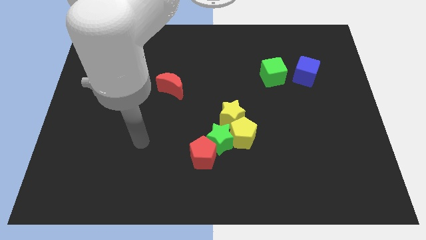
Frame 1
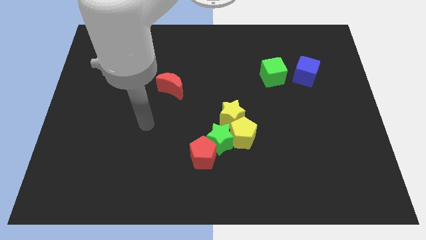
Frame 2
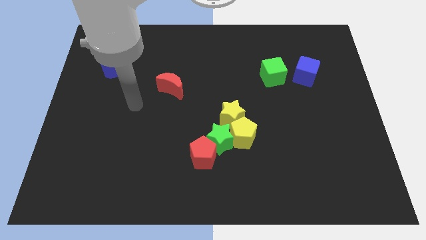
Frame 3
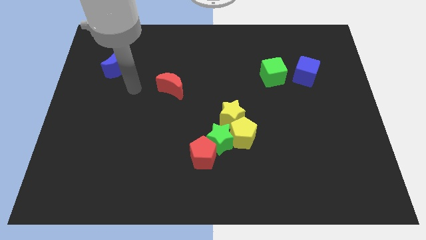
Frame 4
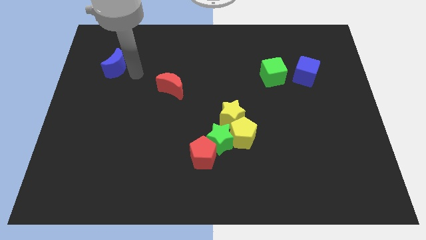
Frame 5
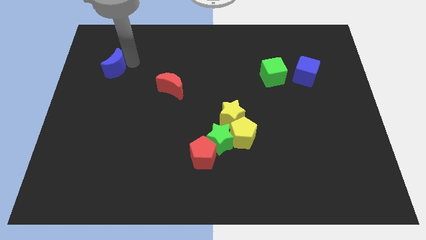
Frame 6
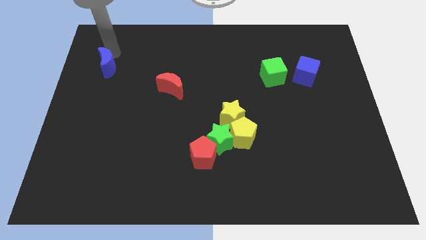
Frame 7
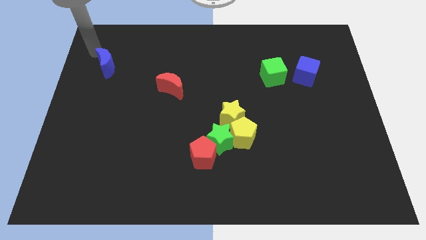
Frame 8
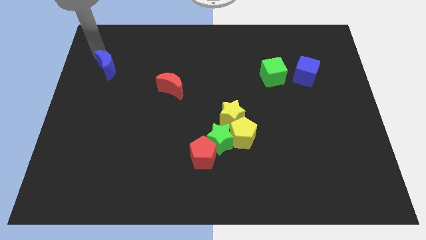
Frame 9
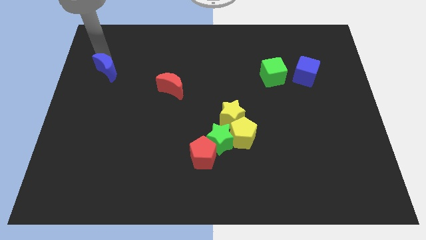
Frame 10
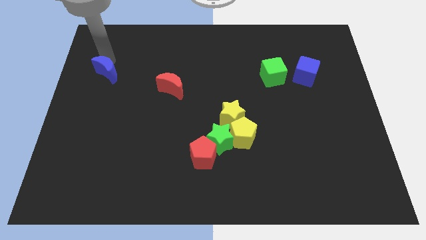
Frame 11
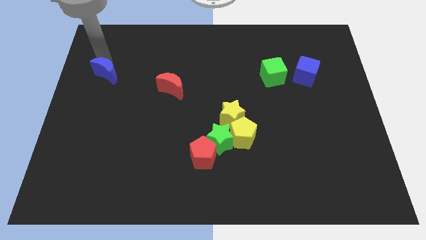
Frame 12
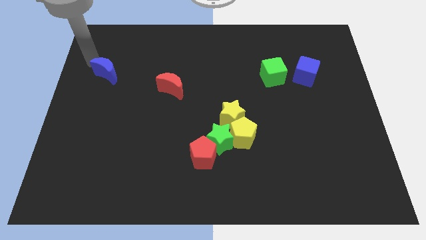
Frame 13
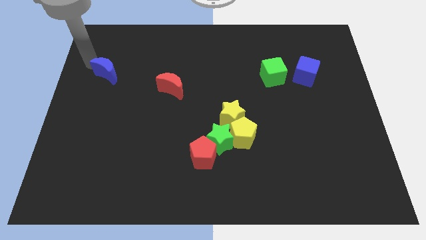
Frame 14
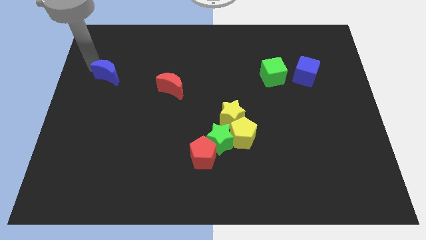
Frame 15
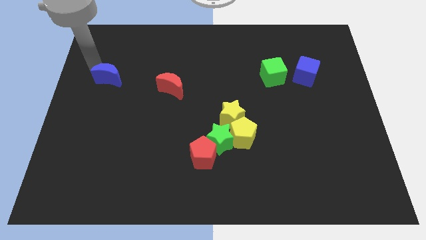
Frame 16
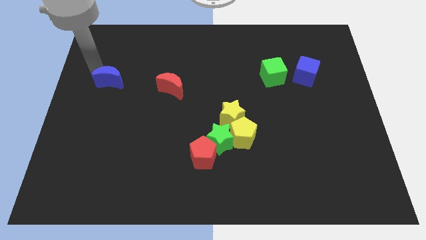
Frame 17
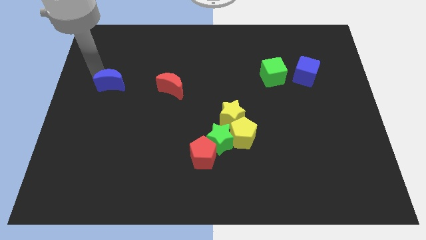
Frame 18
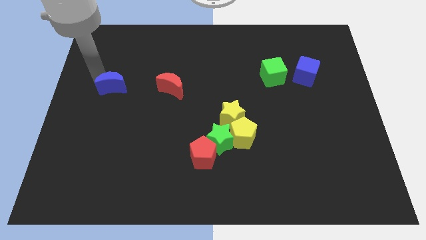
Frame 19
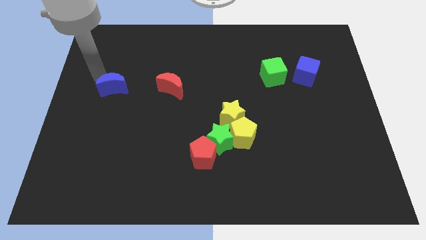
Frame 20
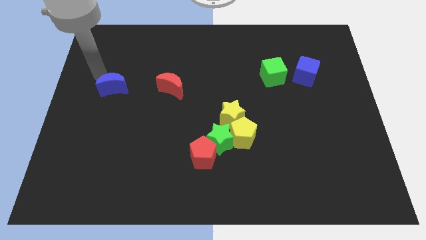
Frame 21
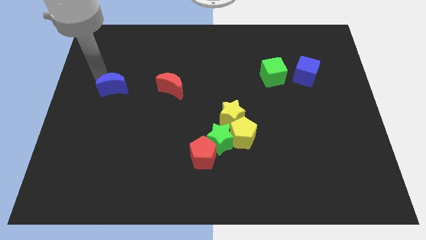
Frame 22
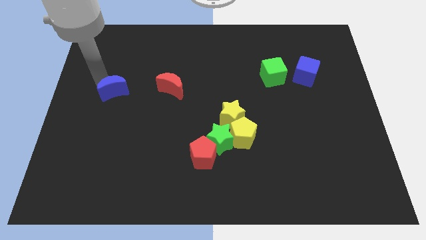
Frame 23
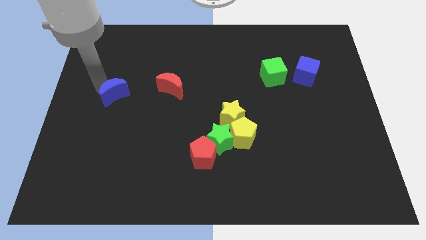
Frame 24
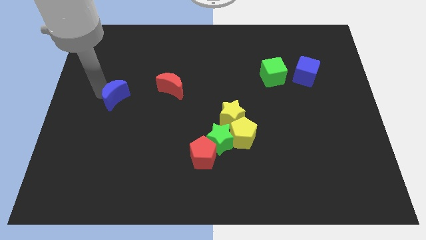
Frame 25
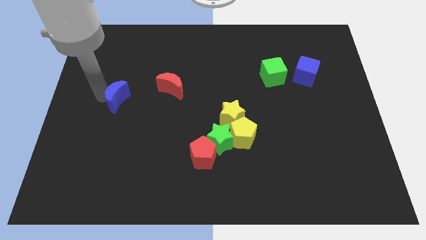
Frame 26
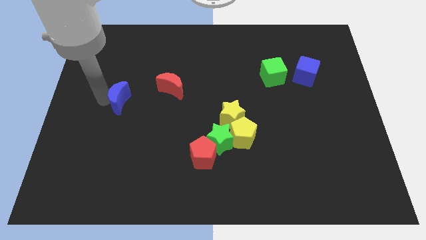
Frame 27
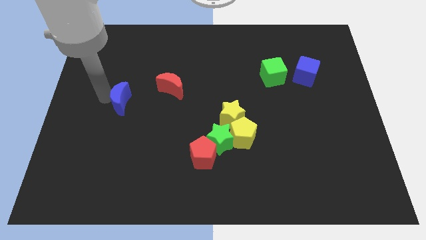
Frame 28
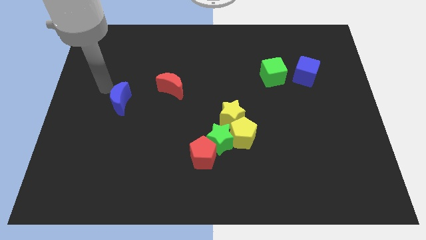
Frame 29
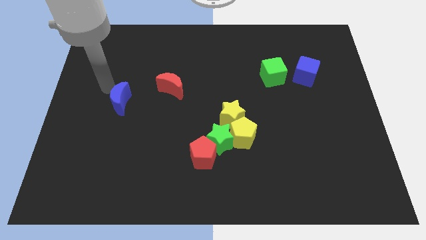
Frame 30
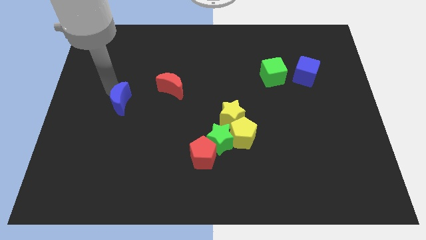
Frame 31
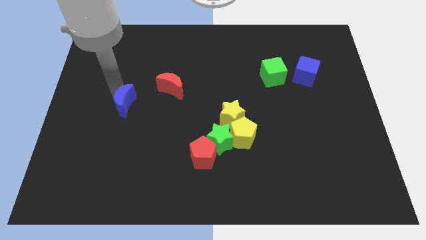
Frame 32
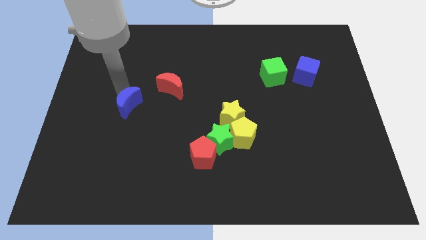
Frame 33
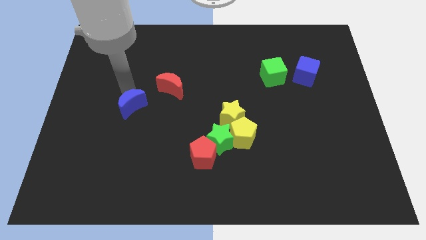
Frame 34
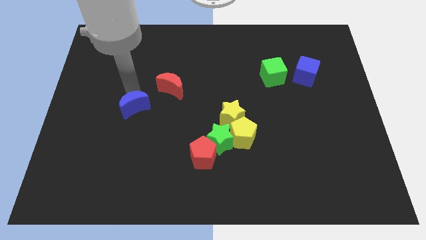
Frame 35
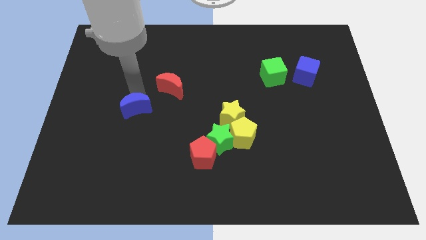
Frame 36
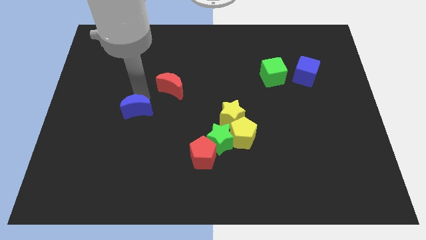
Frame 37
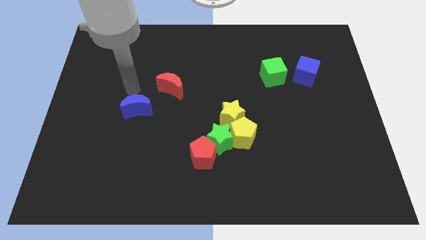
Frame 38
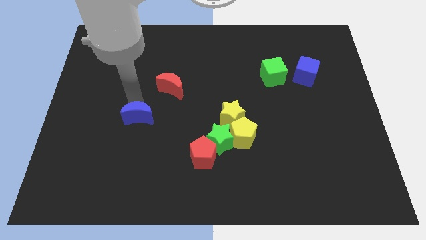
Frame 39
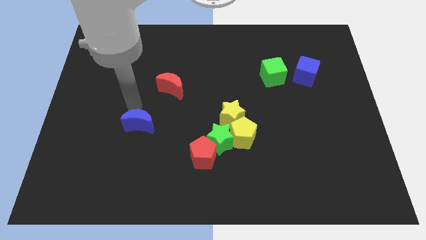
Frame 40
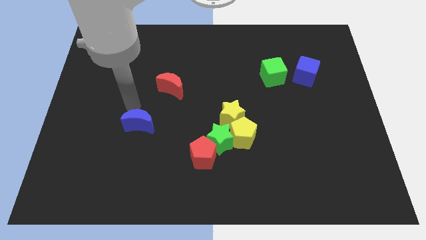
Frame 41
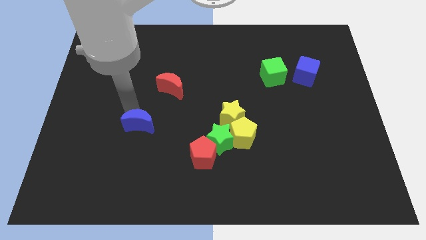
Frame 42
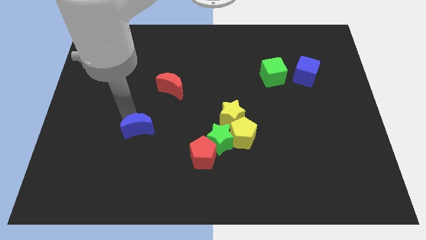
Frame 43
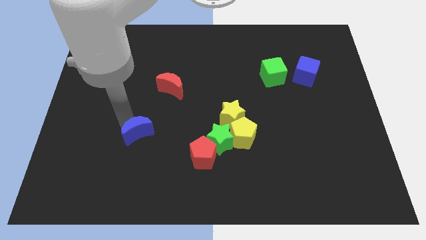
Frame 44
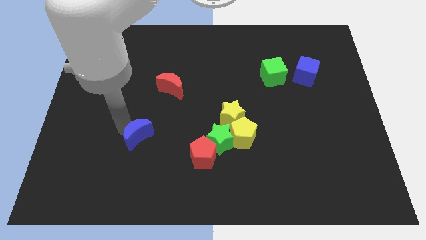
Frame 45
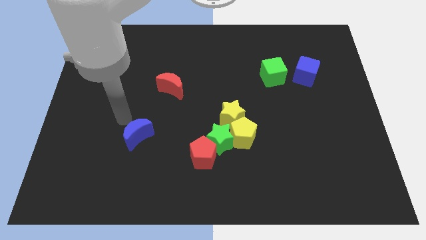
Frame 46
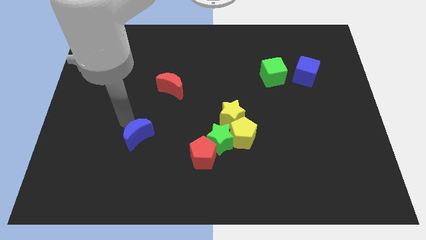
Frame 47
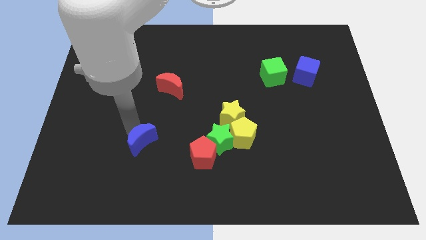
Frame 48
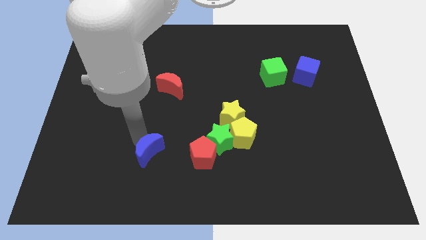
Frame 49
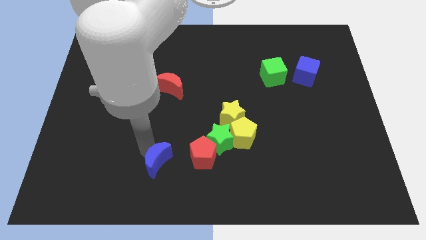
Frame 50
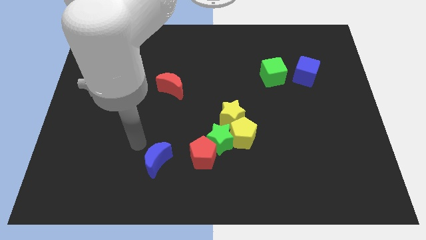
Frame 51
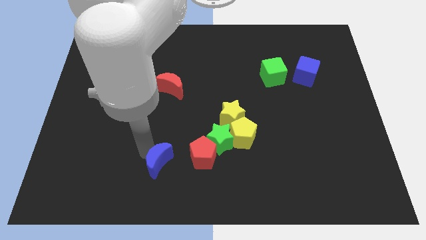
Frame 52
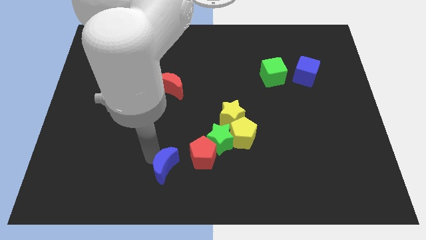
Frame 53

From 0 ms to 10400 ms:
slide the blue moon to the bottom left side of the red pentagon

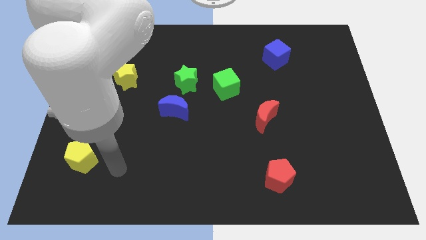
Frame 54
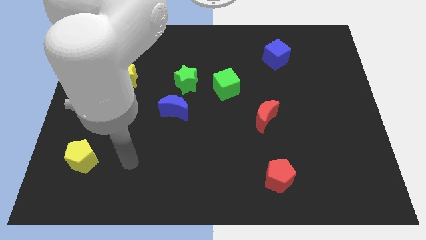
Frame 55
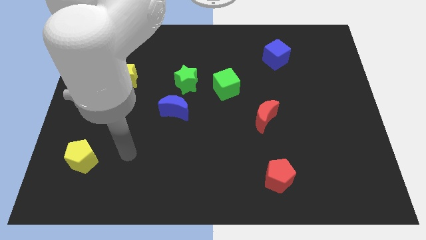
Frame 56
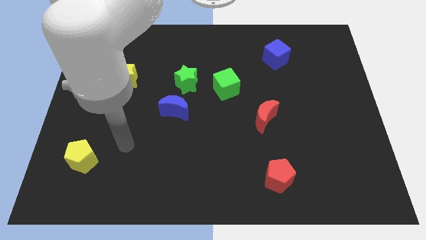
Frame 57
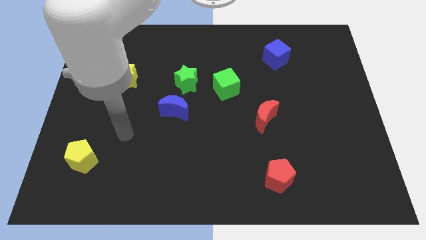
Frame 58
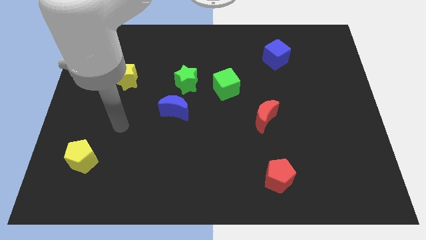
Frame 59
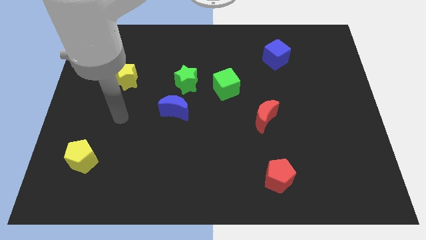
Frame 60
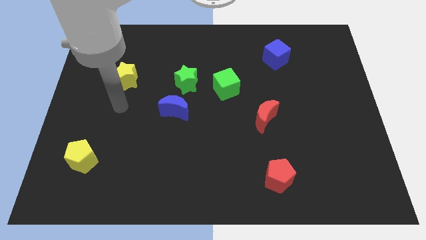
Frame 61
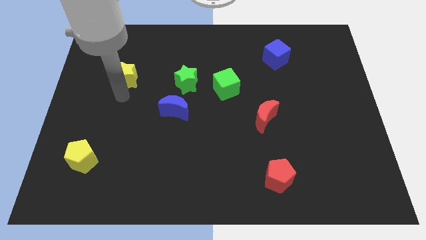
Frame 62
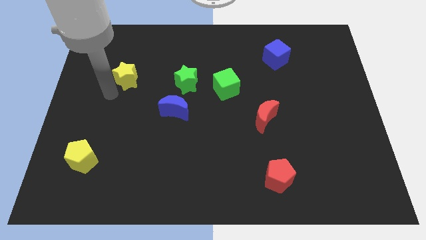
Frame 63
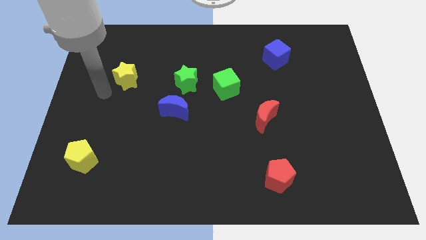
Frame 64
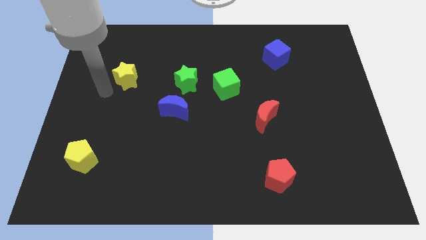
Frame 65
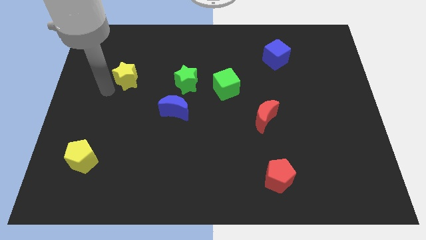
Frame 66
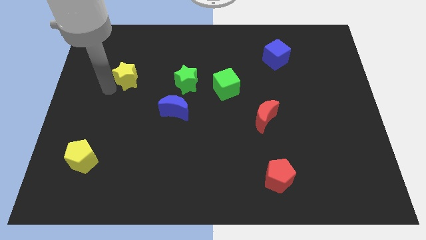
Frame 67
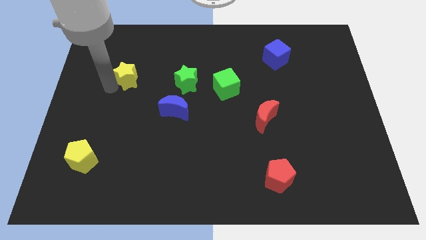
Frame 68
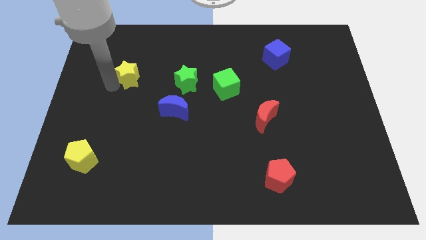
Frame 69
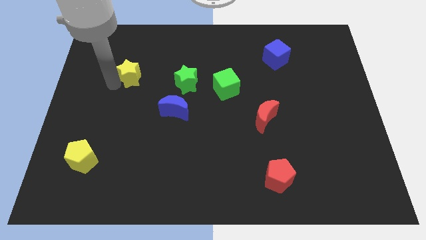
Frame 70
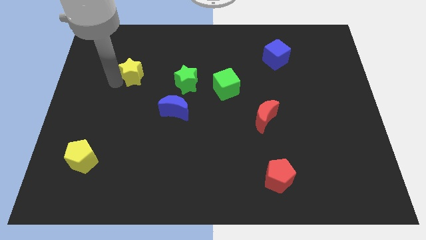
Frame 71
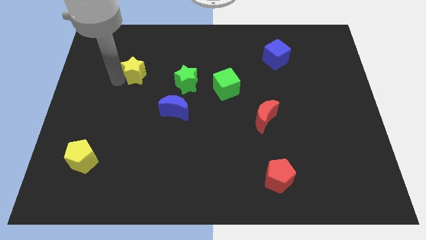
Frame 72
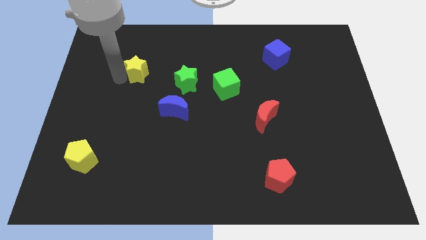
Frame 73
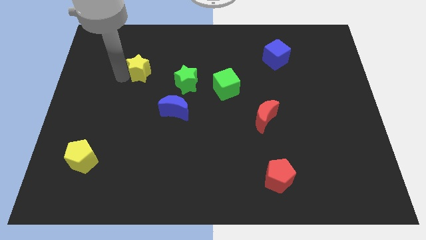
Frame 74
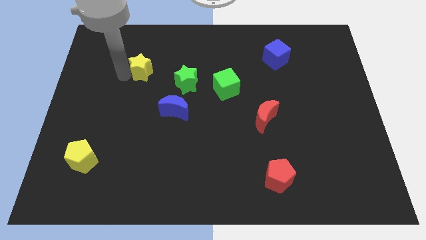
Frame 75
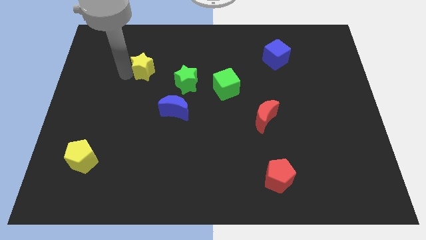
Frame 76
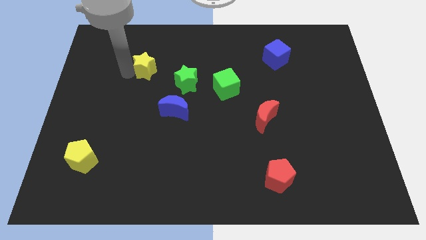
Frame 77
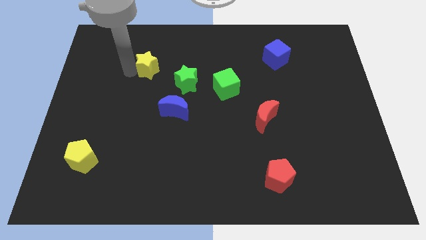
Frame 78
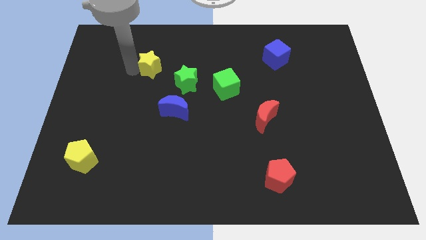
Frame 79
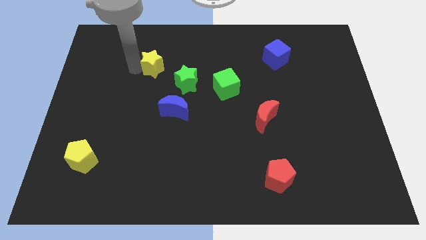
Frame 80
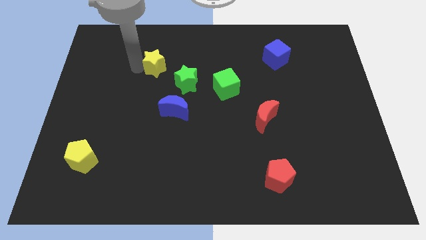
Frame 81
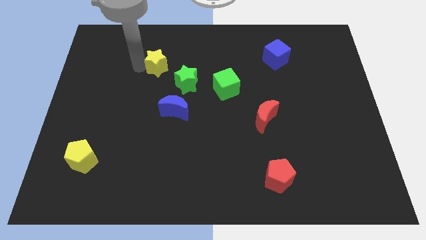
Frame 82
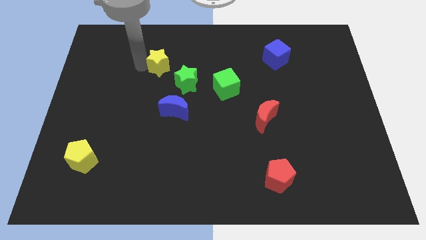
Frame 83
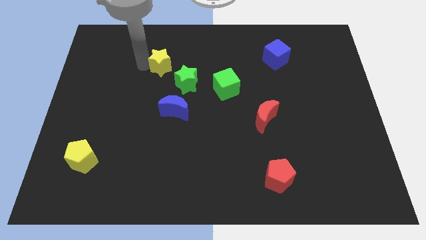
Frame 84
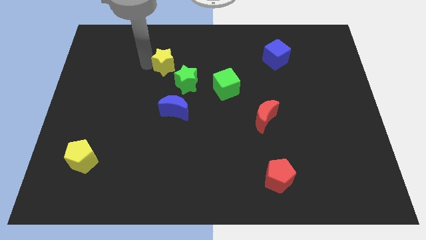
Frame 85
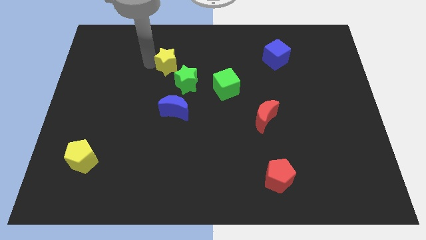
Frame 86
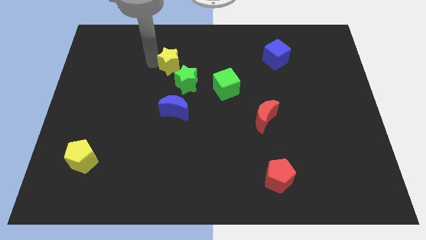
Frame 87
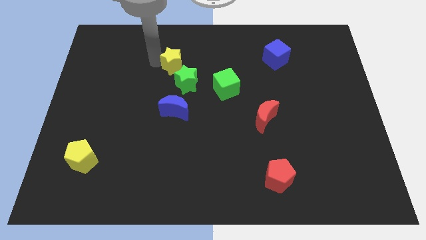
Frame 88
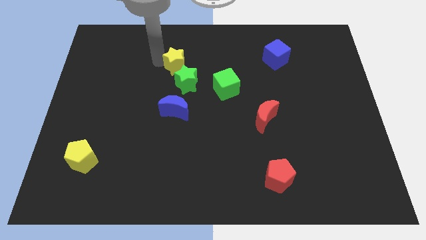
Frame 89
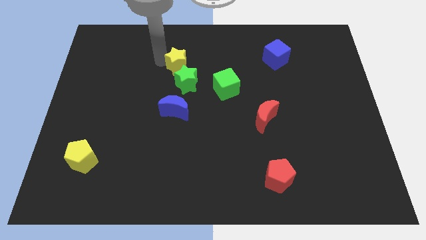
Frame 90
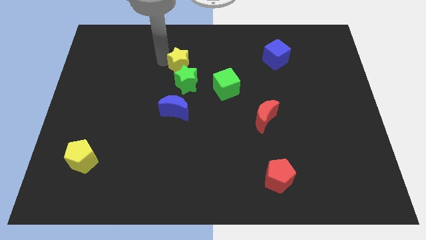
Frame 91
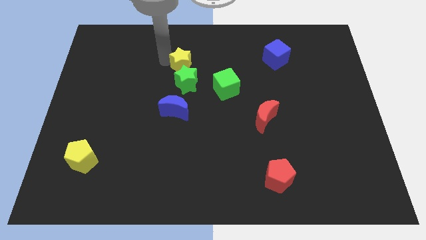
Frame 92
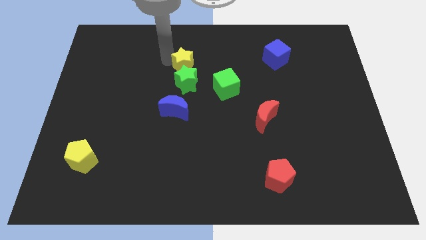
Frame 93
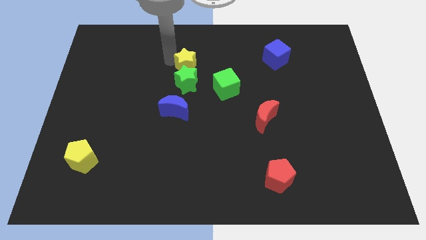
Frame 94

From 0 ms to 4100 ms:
move the yellow star diagonally up and to the right of the green star
